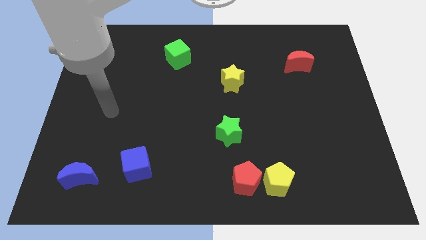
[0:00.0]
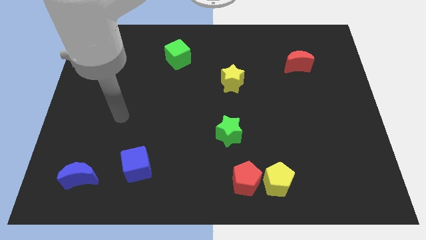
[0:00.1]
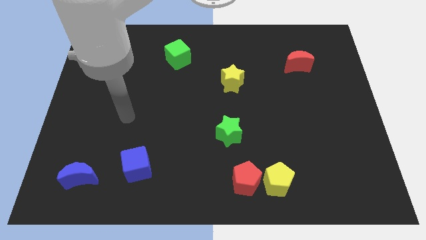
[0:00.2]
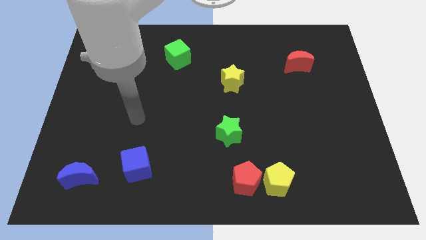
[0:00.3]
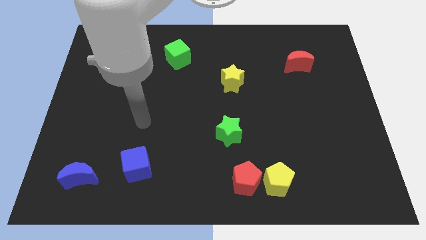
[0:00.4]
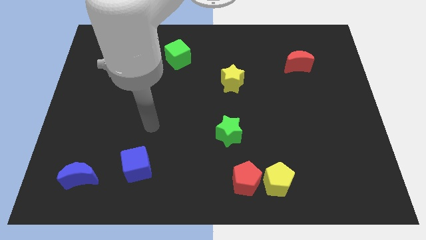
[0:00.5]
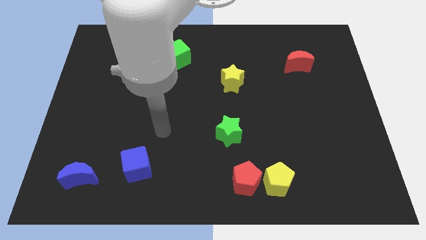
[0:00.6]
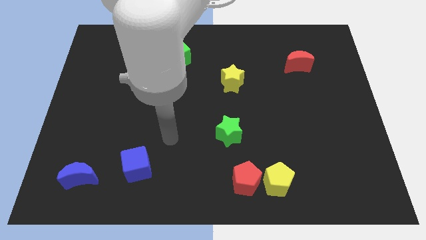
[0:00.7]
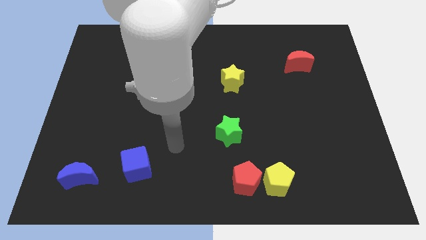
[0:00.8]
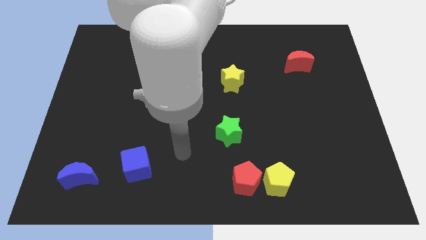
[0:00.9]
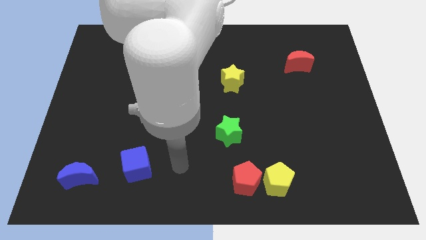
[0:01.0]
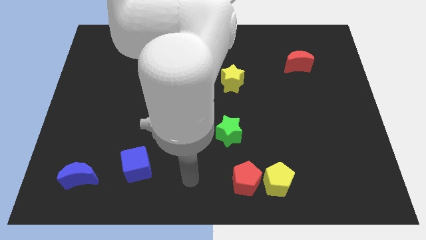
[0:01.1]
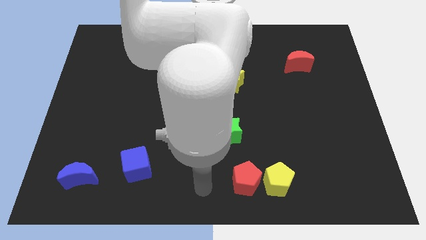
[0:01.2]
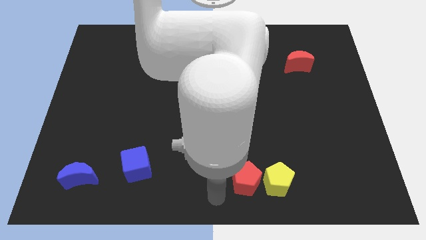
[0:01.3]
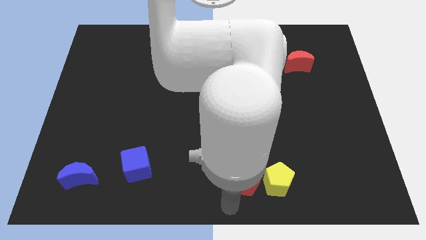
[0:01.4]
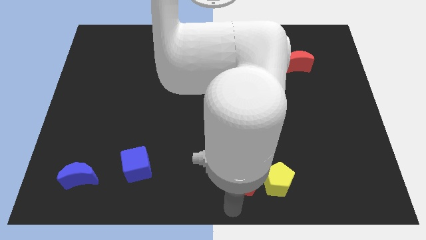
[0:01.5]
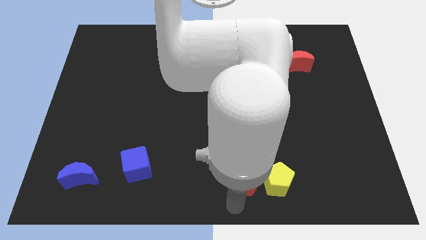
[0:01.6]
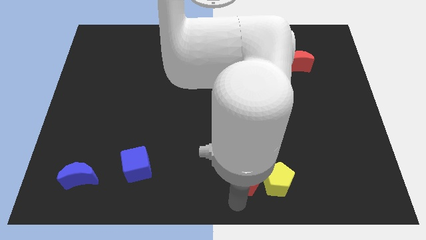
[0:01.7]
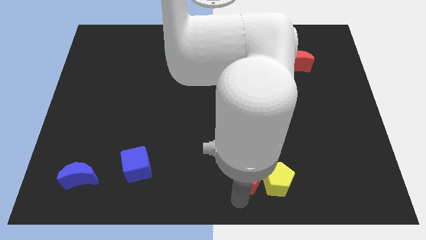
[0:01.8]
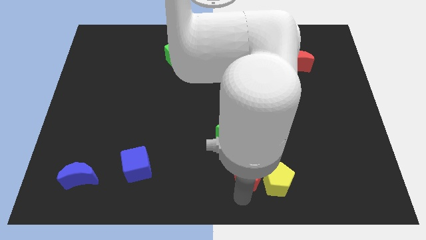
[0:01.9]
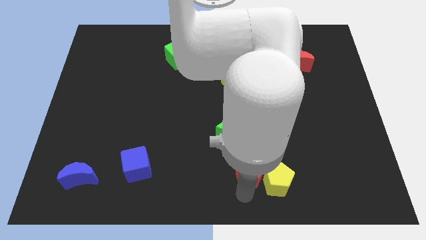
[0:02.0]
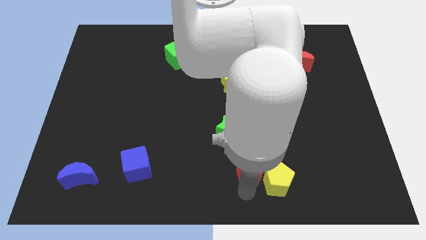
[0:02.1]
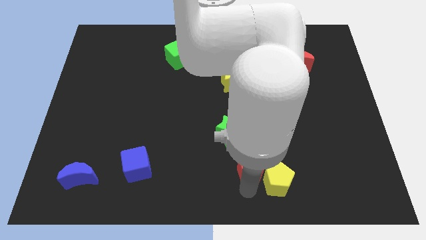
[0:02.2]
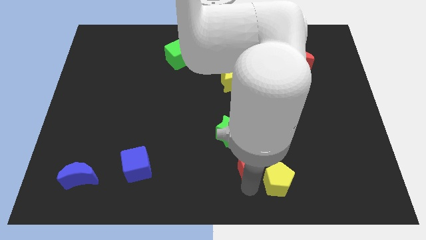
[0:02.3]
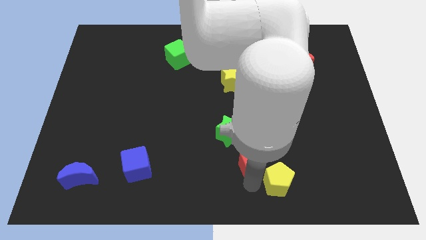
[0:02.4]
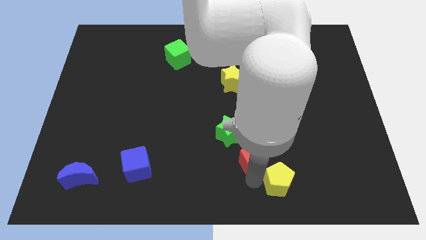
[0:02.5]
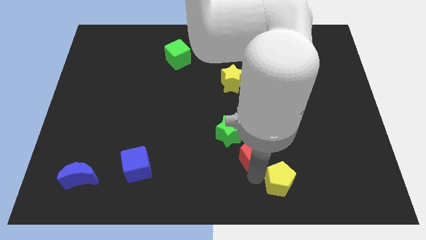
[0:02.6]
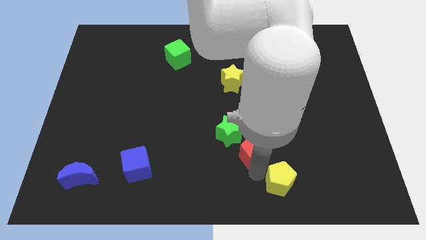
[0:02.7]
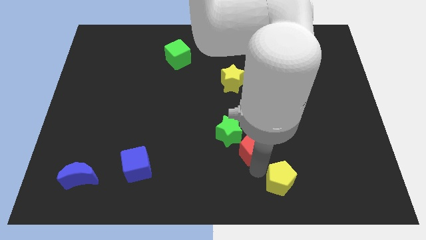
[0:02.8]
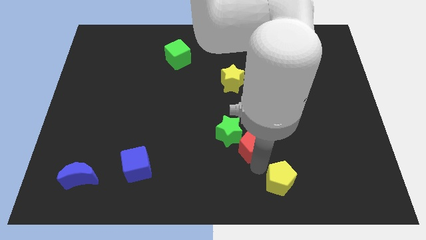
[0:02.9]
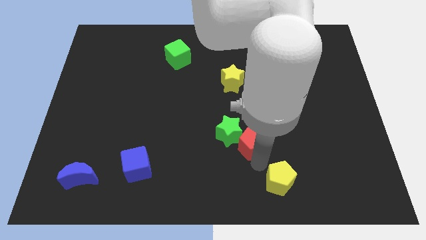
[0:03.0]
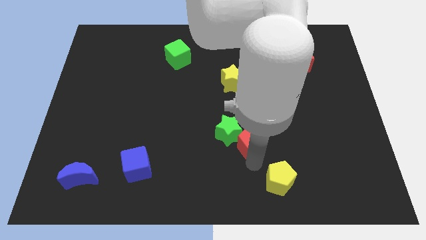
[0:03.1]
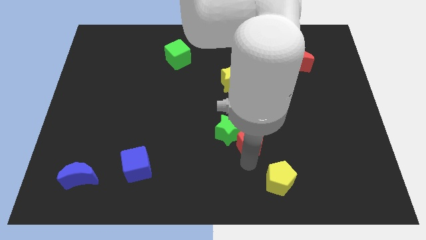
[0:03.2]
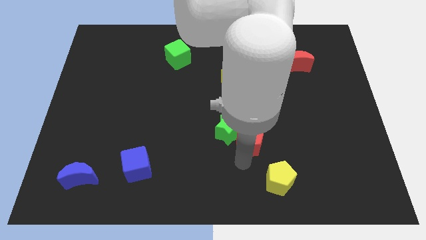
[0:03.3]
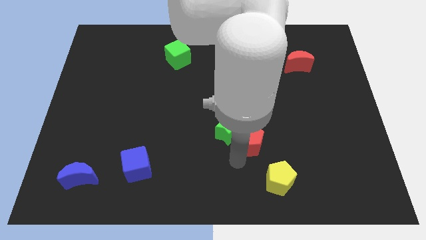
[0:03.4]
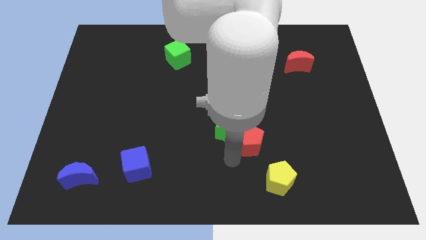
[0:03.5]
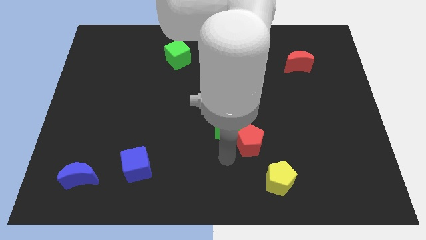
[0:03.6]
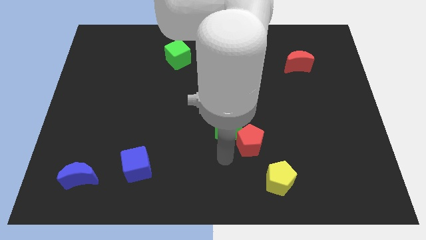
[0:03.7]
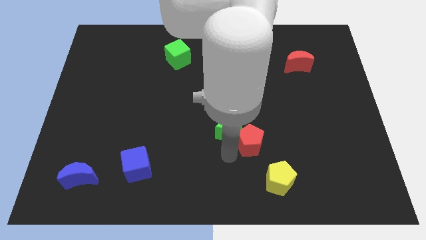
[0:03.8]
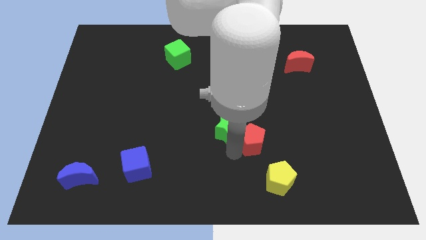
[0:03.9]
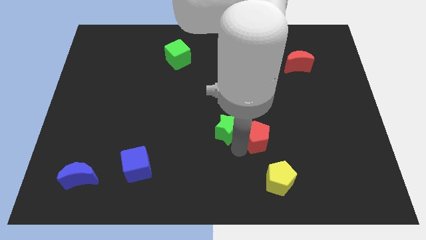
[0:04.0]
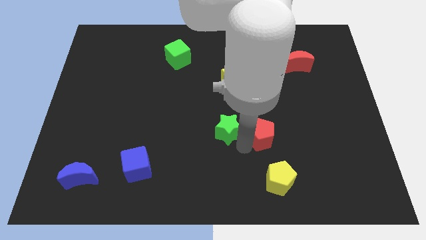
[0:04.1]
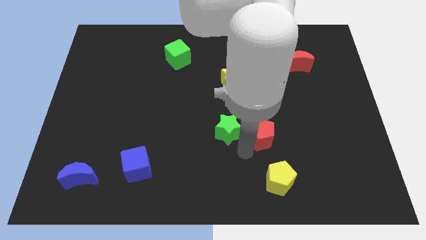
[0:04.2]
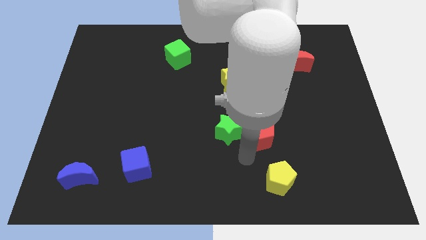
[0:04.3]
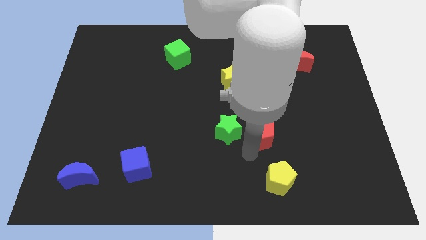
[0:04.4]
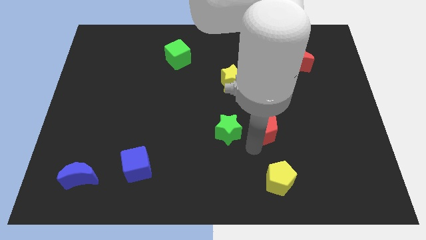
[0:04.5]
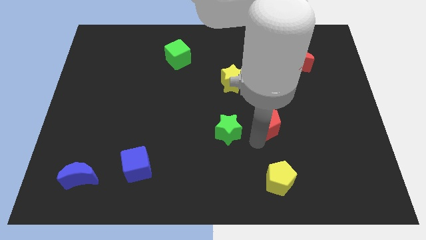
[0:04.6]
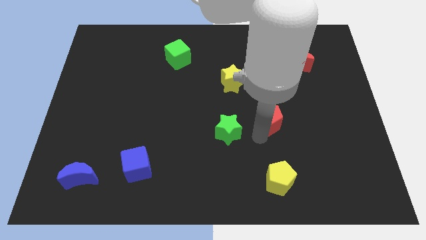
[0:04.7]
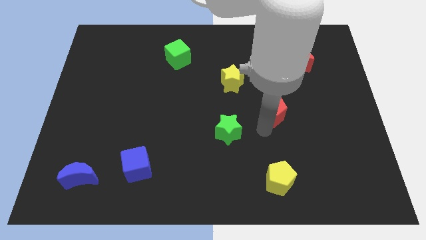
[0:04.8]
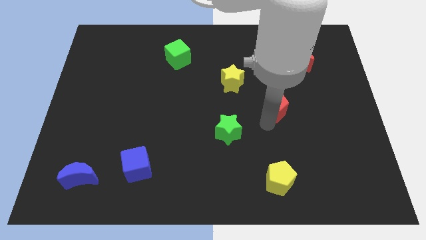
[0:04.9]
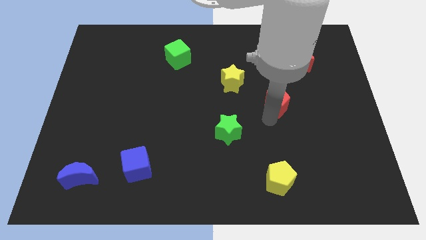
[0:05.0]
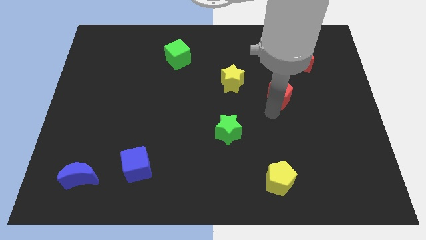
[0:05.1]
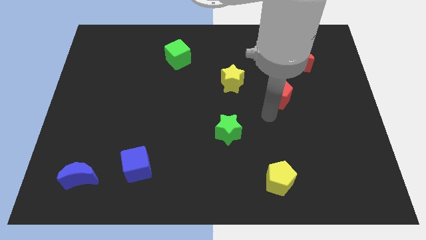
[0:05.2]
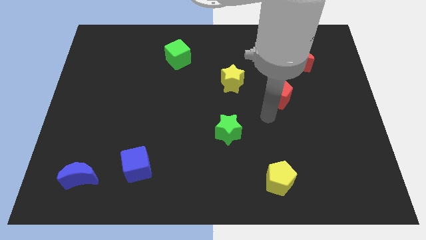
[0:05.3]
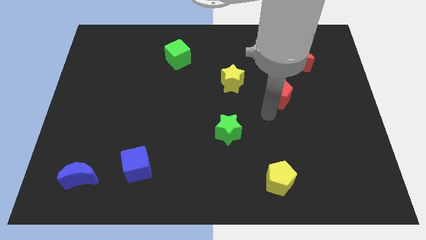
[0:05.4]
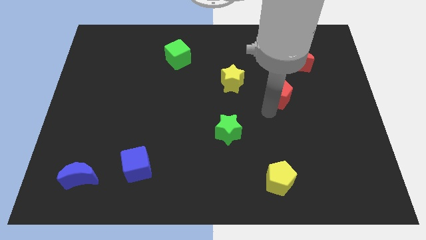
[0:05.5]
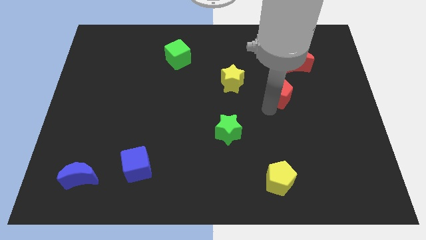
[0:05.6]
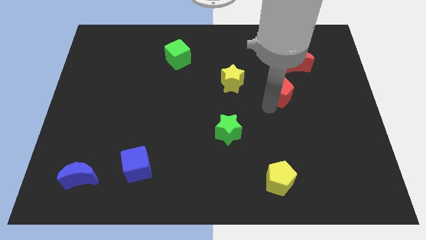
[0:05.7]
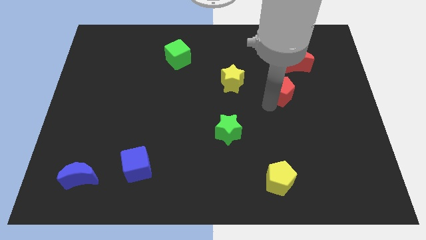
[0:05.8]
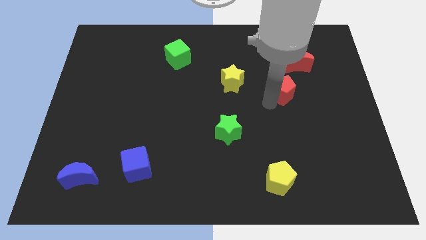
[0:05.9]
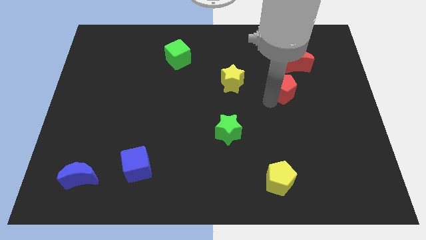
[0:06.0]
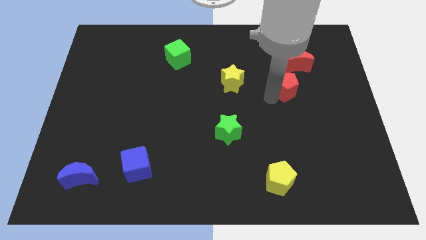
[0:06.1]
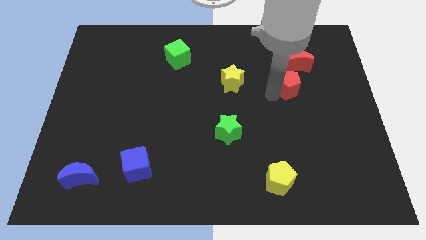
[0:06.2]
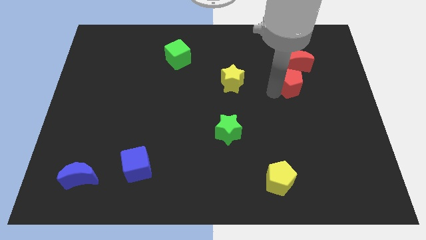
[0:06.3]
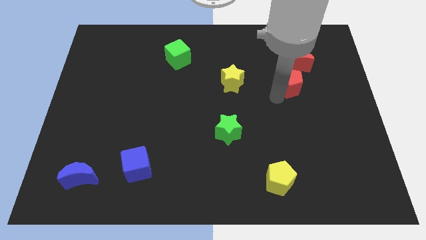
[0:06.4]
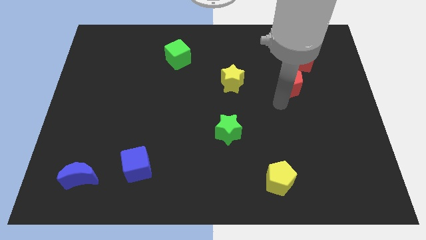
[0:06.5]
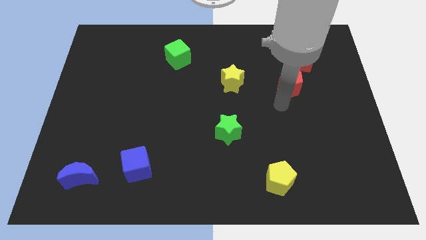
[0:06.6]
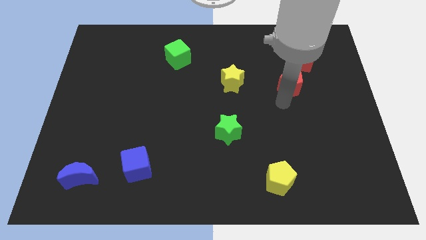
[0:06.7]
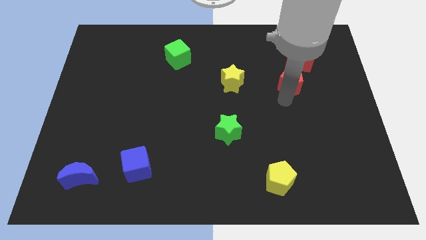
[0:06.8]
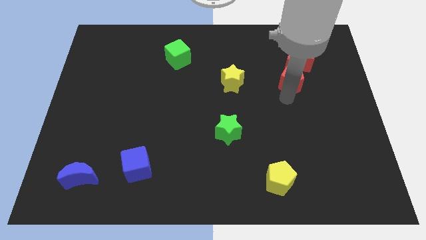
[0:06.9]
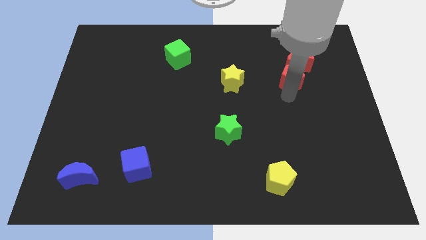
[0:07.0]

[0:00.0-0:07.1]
slide the red pentagon to the red moon
